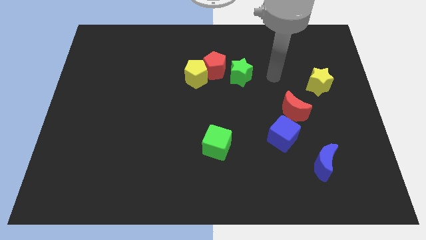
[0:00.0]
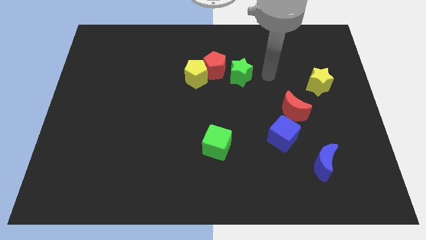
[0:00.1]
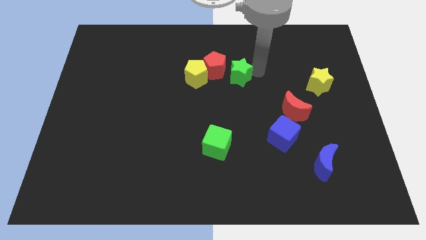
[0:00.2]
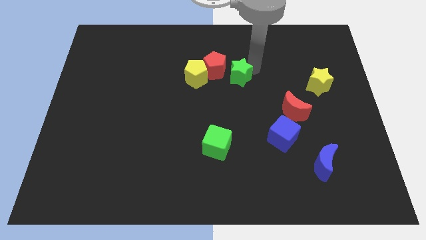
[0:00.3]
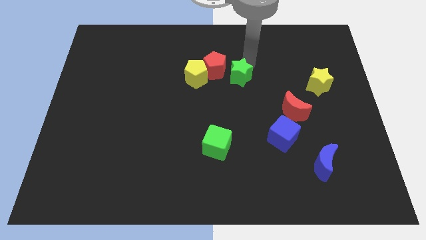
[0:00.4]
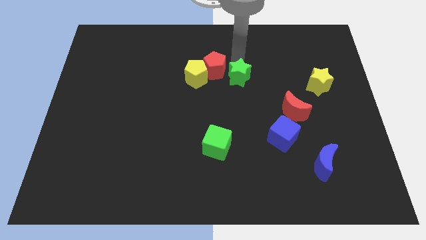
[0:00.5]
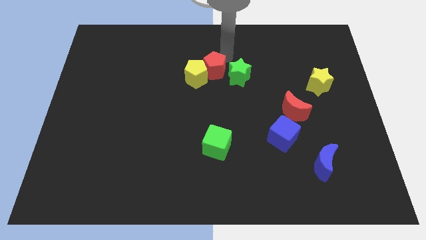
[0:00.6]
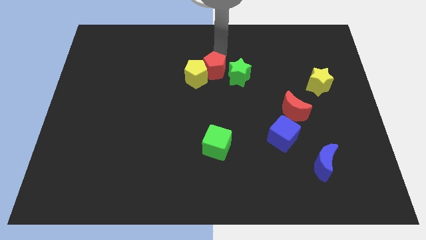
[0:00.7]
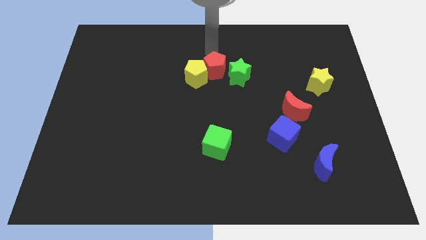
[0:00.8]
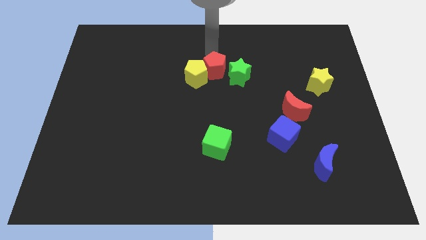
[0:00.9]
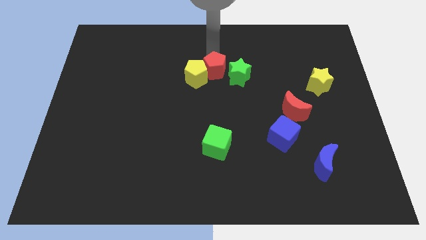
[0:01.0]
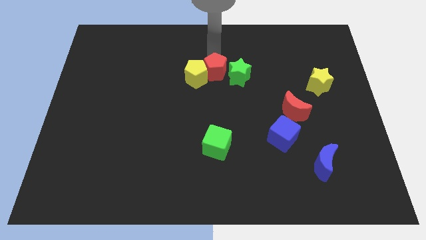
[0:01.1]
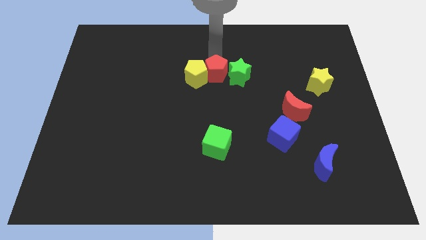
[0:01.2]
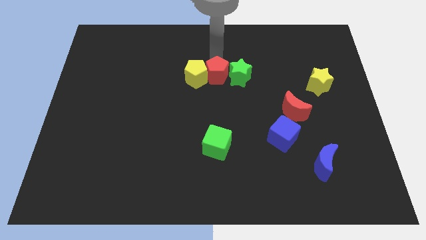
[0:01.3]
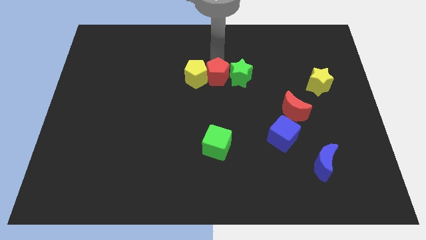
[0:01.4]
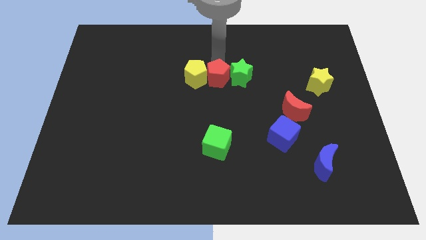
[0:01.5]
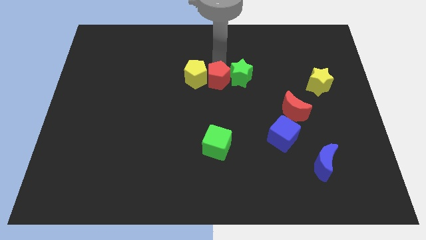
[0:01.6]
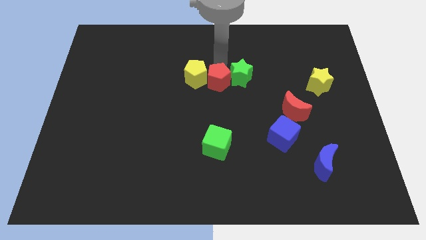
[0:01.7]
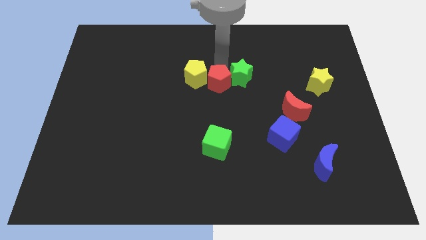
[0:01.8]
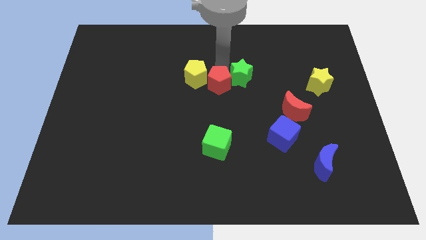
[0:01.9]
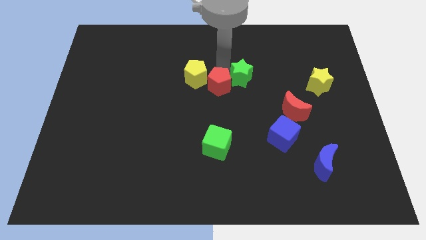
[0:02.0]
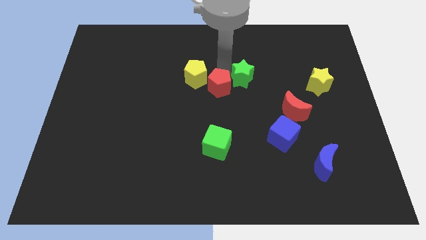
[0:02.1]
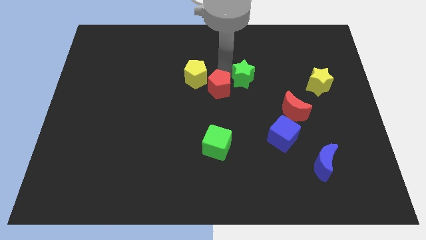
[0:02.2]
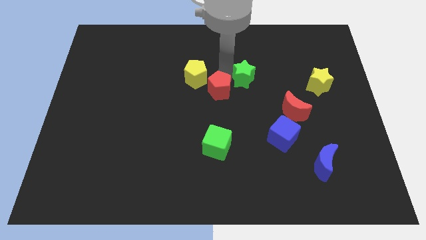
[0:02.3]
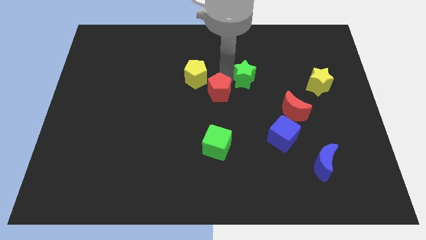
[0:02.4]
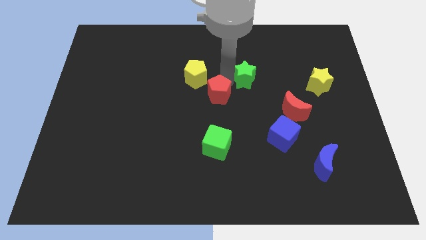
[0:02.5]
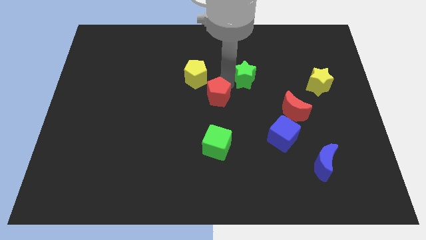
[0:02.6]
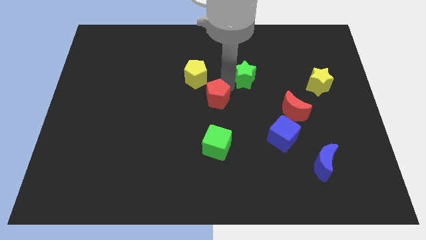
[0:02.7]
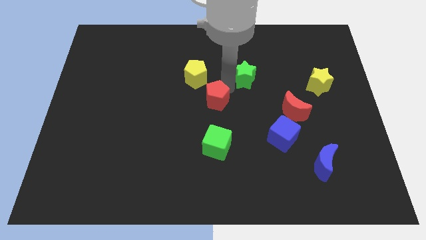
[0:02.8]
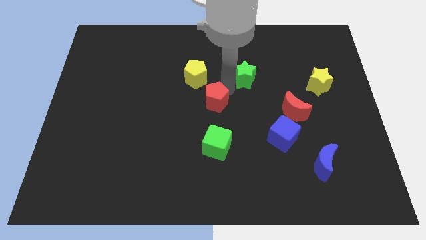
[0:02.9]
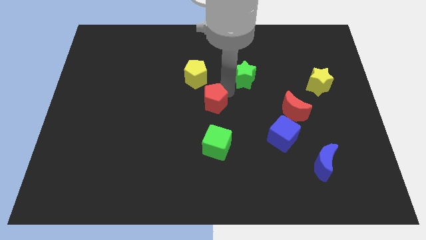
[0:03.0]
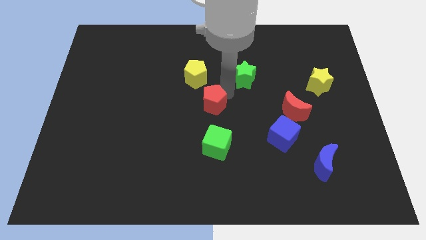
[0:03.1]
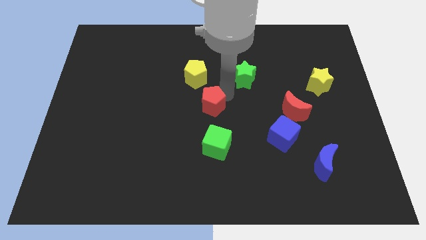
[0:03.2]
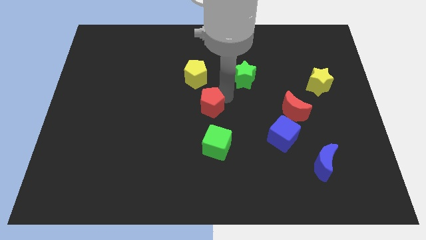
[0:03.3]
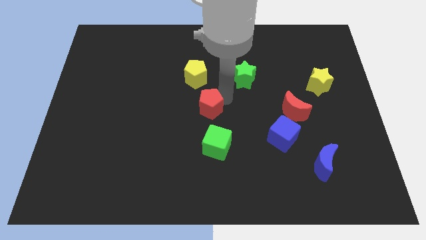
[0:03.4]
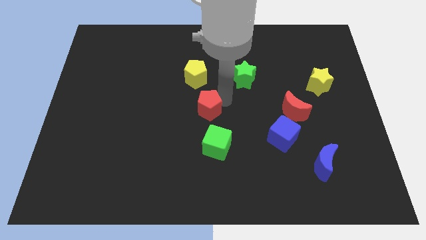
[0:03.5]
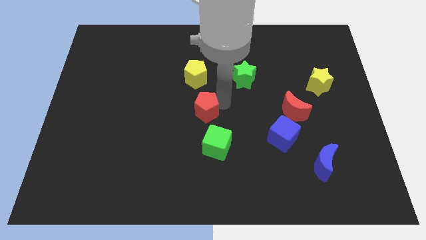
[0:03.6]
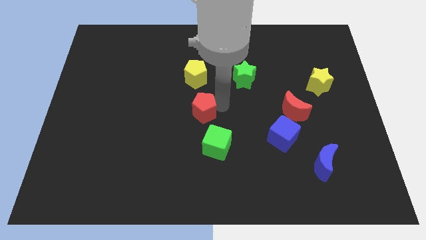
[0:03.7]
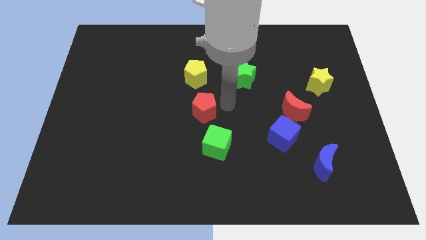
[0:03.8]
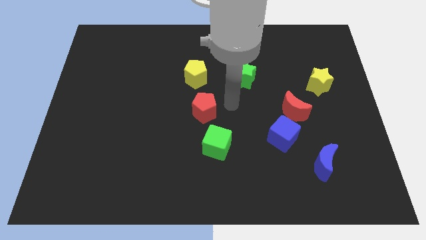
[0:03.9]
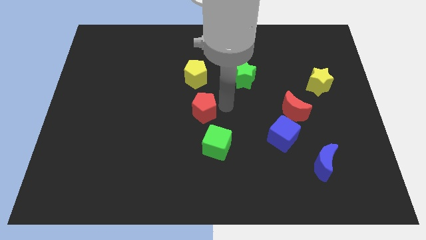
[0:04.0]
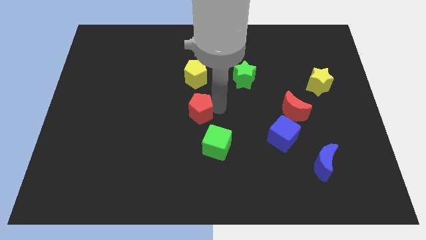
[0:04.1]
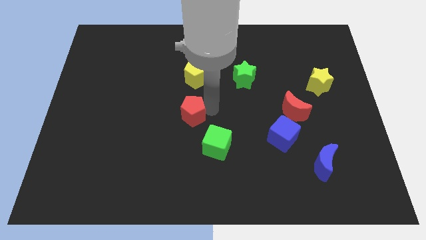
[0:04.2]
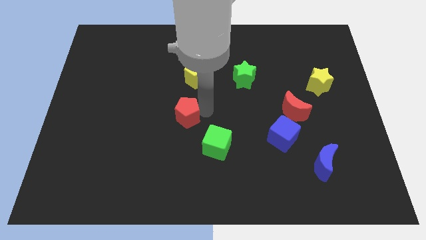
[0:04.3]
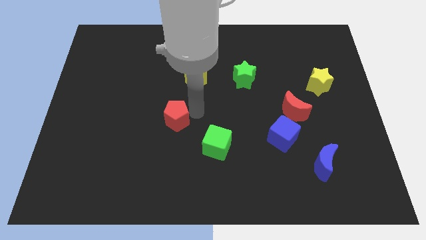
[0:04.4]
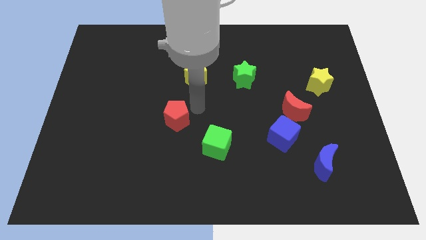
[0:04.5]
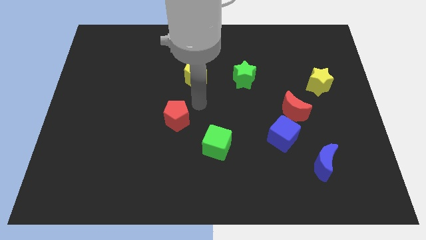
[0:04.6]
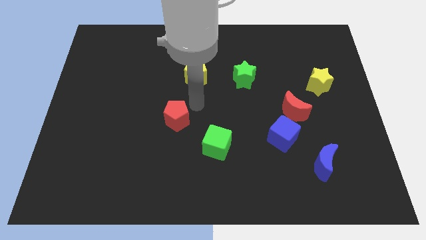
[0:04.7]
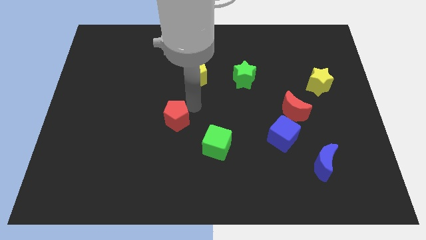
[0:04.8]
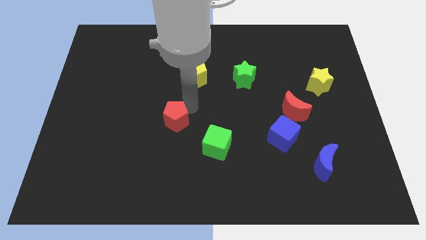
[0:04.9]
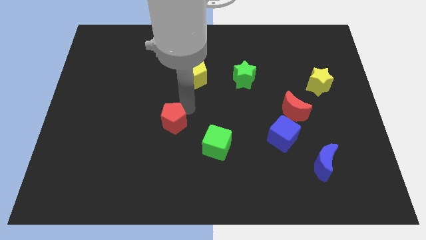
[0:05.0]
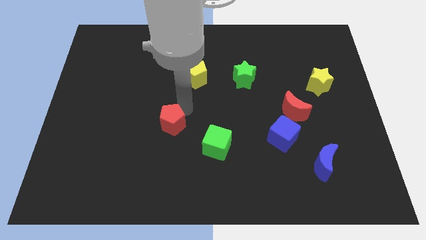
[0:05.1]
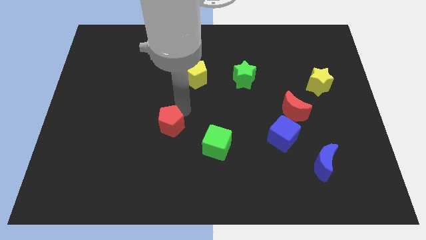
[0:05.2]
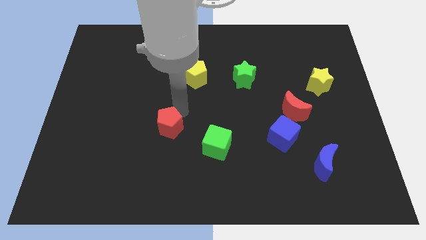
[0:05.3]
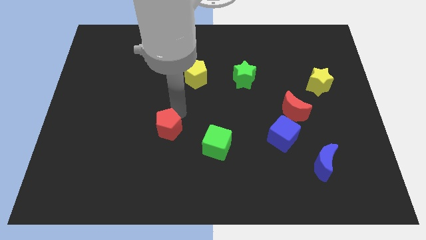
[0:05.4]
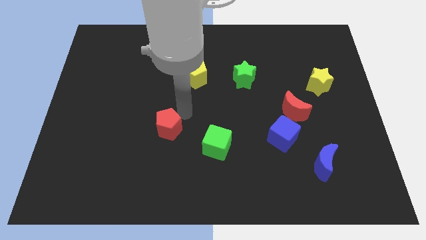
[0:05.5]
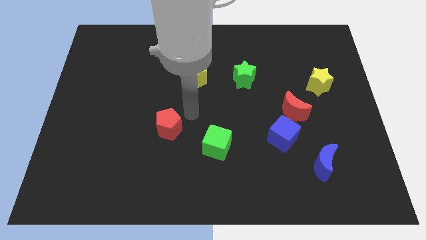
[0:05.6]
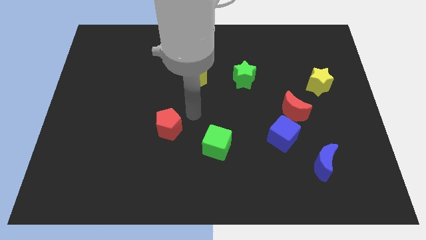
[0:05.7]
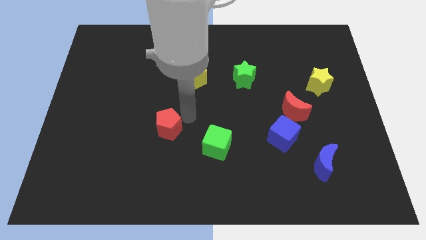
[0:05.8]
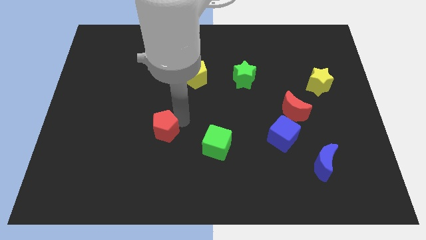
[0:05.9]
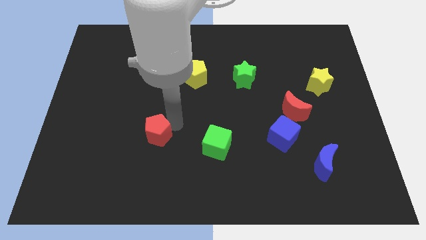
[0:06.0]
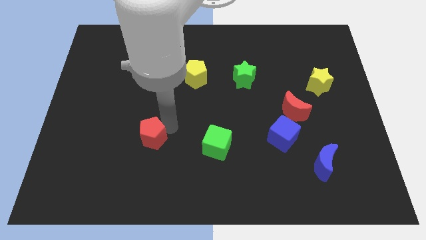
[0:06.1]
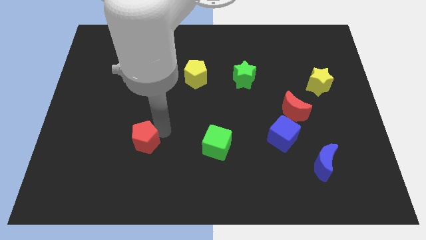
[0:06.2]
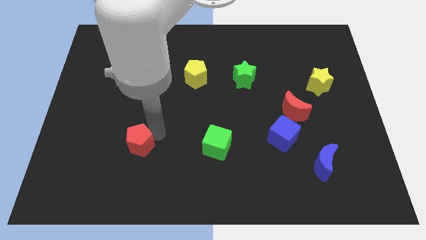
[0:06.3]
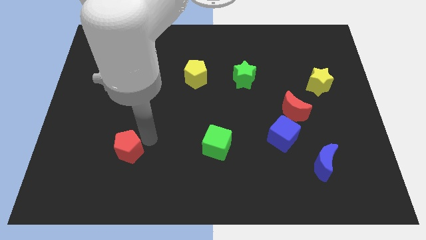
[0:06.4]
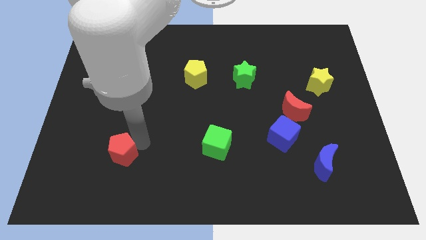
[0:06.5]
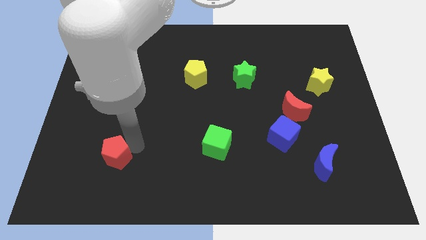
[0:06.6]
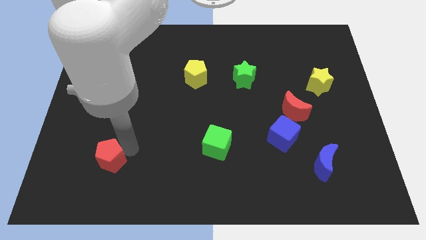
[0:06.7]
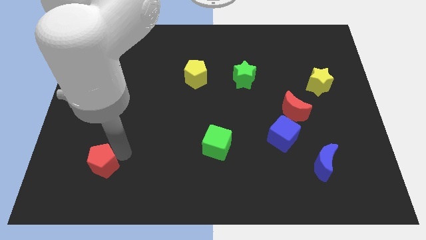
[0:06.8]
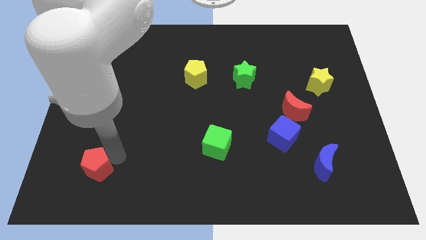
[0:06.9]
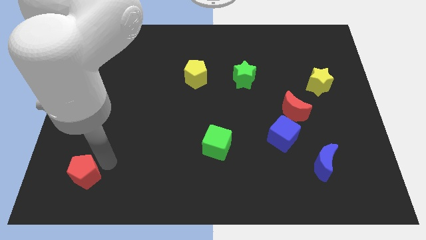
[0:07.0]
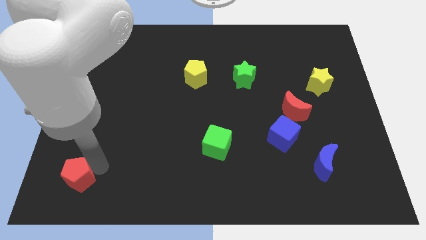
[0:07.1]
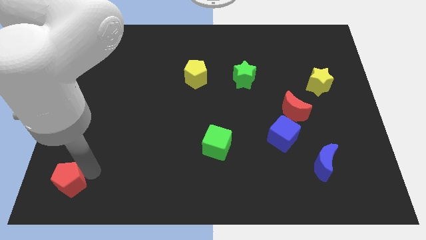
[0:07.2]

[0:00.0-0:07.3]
slide the red pentagon to the bottom left of the board
